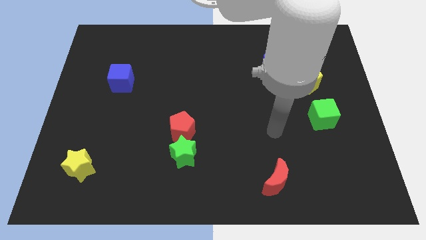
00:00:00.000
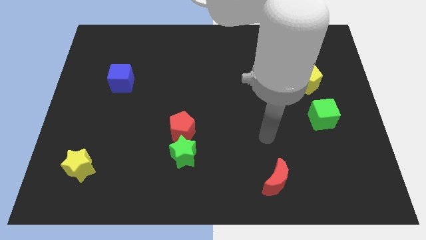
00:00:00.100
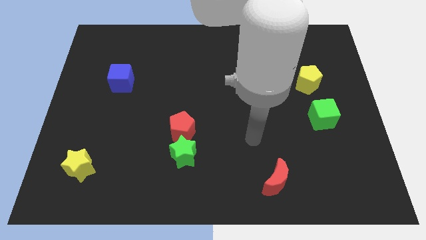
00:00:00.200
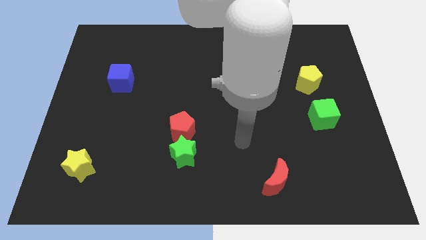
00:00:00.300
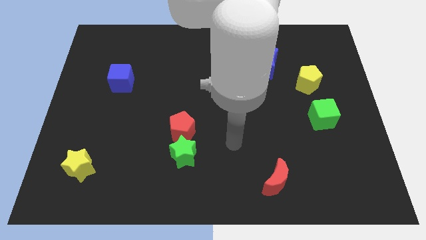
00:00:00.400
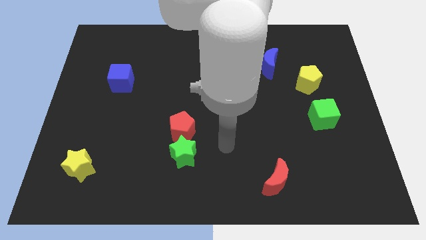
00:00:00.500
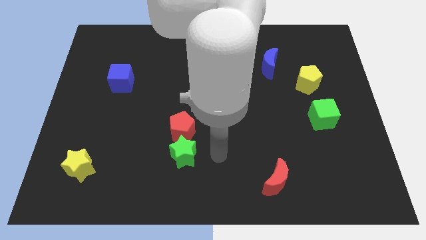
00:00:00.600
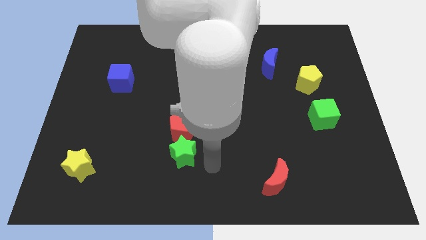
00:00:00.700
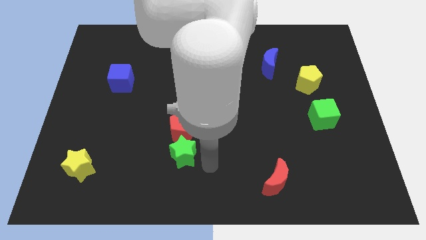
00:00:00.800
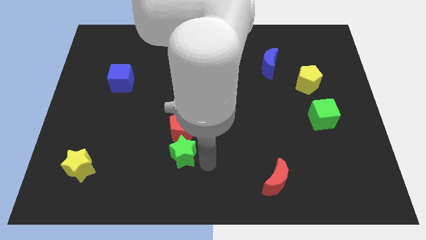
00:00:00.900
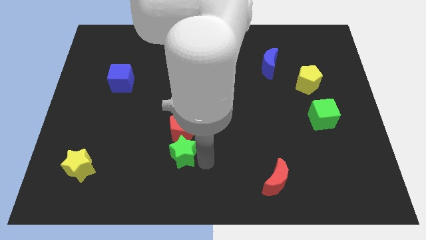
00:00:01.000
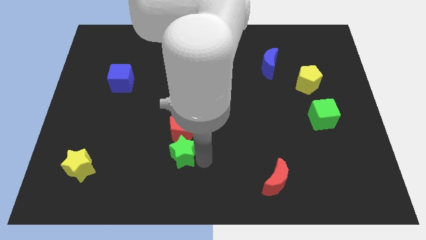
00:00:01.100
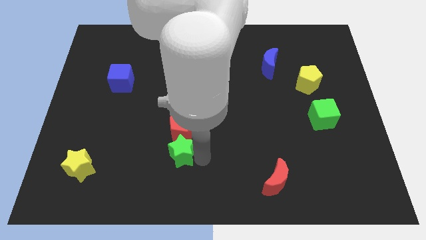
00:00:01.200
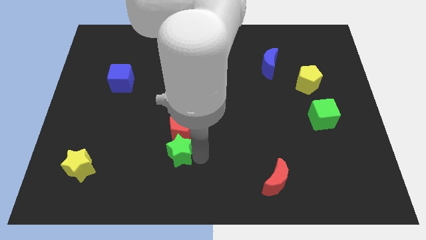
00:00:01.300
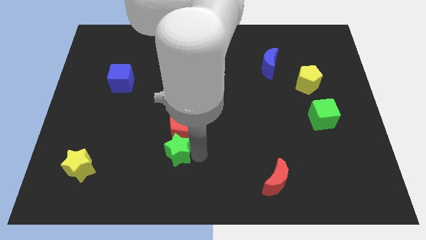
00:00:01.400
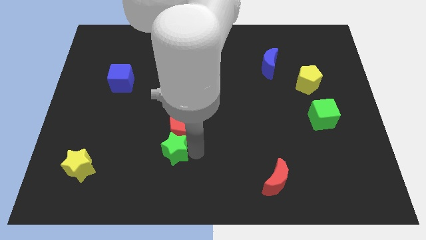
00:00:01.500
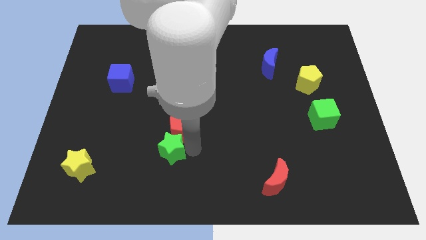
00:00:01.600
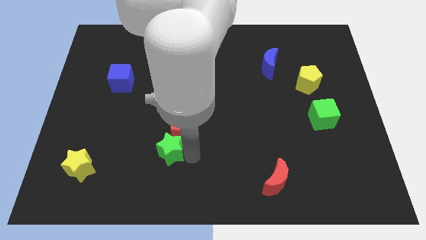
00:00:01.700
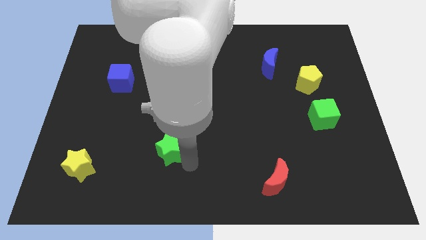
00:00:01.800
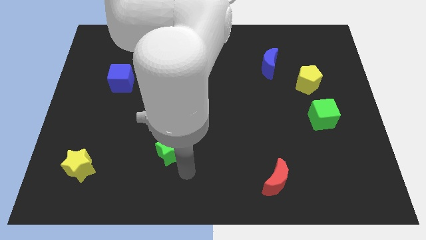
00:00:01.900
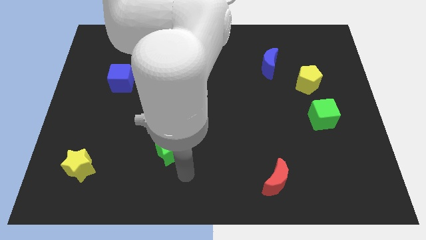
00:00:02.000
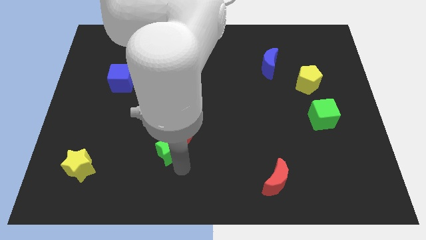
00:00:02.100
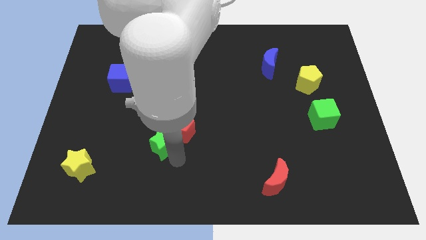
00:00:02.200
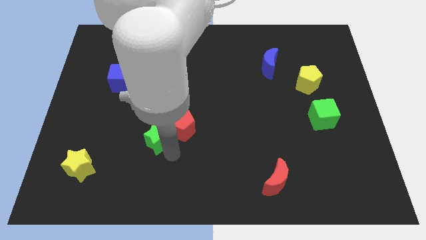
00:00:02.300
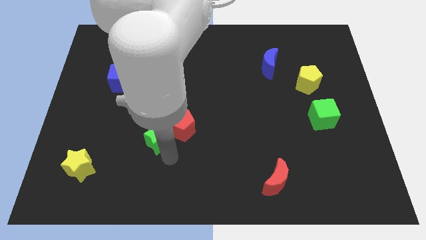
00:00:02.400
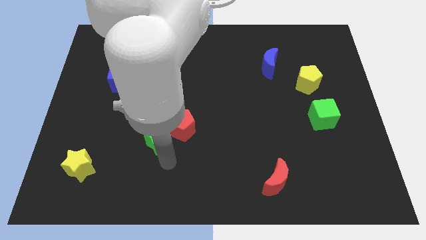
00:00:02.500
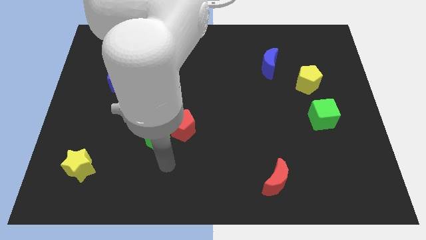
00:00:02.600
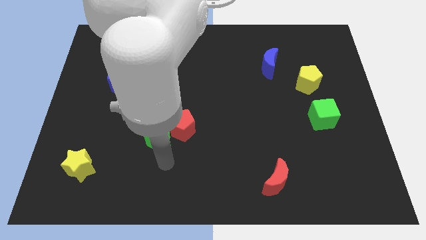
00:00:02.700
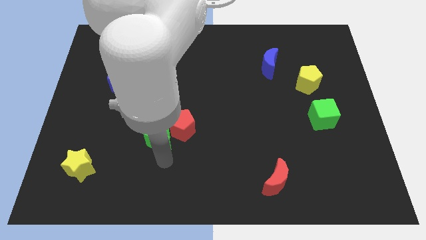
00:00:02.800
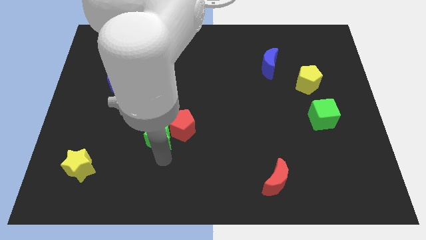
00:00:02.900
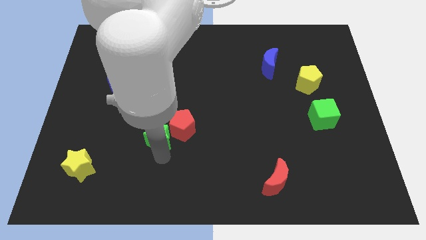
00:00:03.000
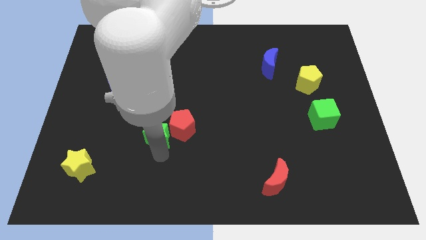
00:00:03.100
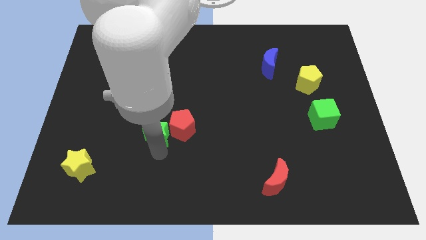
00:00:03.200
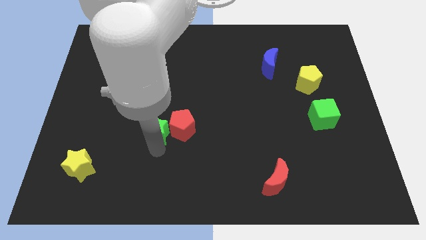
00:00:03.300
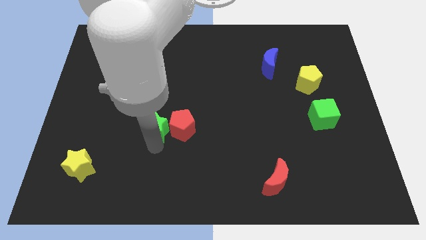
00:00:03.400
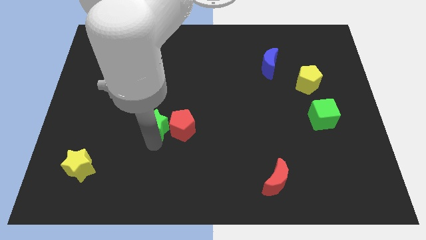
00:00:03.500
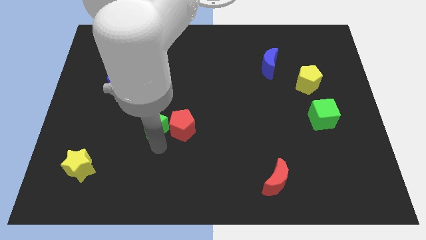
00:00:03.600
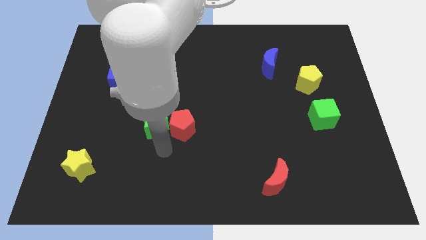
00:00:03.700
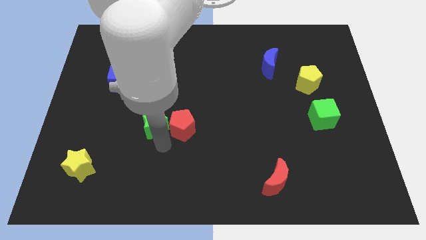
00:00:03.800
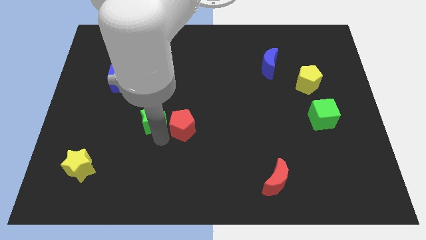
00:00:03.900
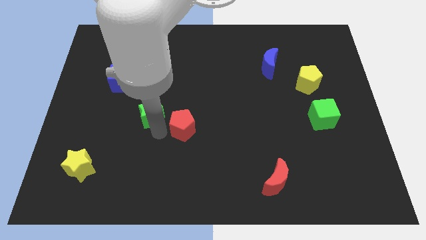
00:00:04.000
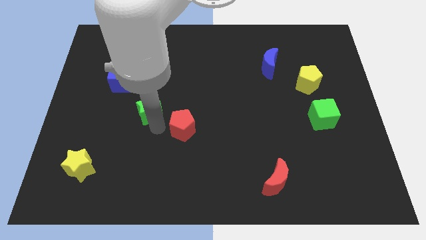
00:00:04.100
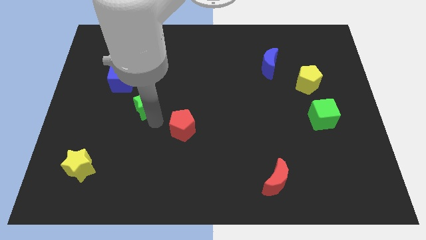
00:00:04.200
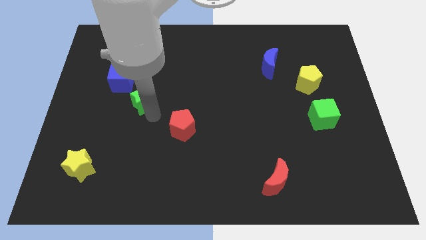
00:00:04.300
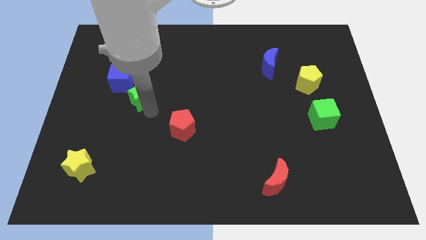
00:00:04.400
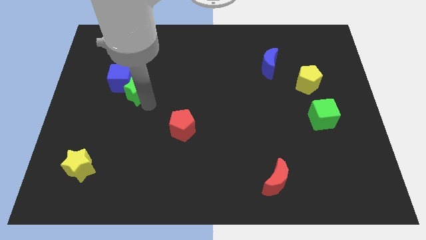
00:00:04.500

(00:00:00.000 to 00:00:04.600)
put the green star towards the blue cube

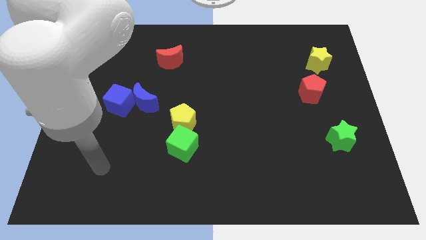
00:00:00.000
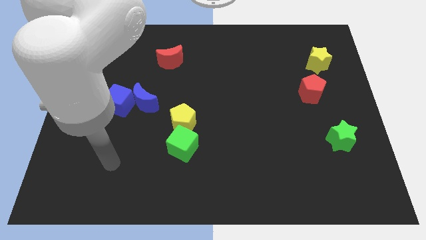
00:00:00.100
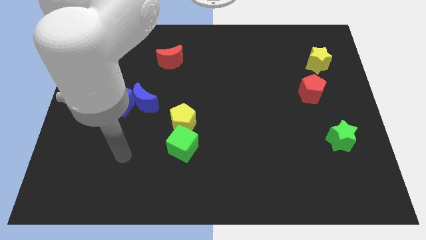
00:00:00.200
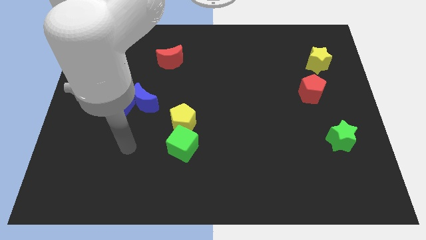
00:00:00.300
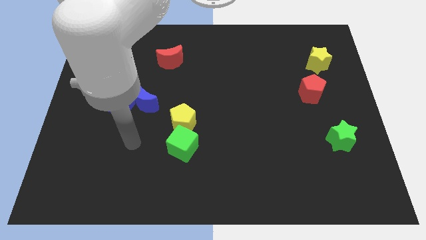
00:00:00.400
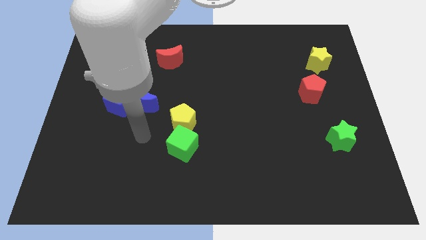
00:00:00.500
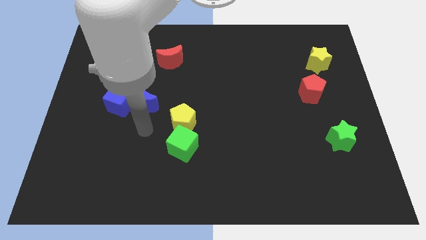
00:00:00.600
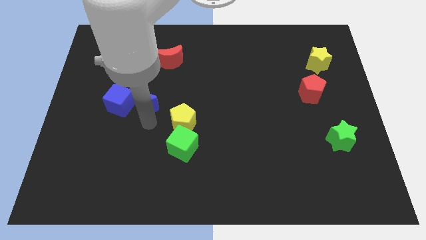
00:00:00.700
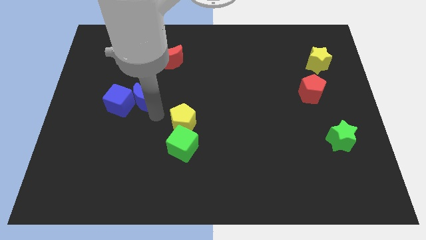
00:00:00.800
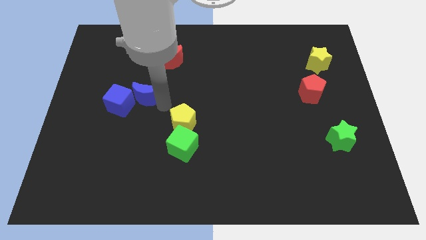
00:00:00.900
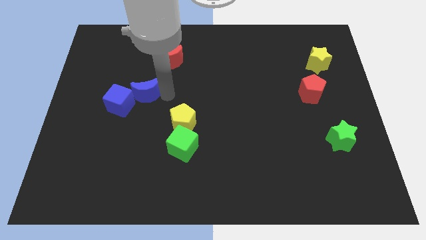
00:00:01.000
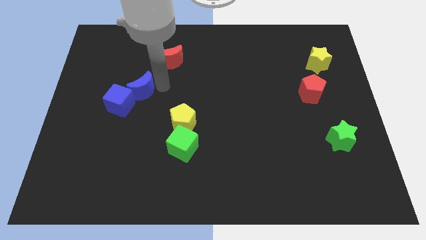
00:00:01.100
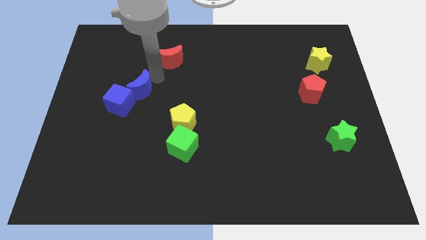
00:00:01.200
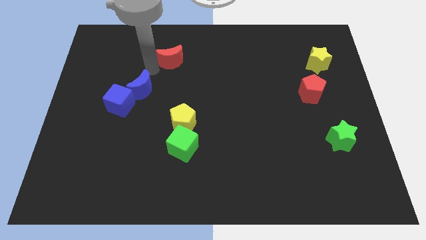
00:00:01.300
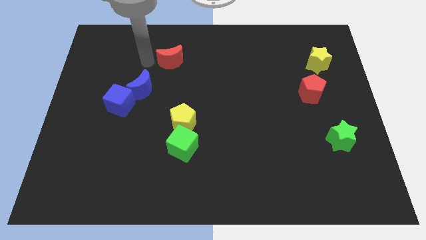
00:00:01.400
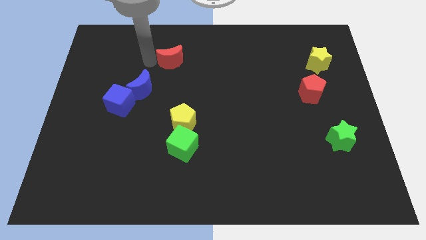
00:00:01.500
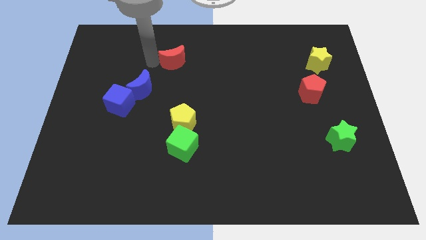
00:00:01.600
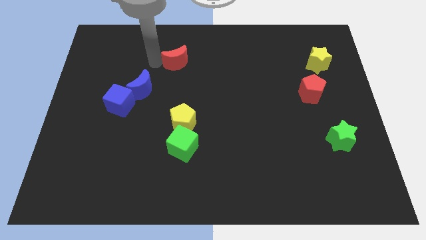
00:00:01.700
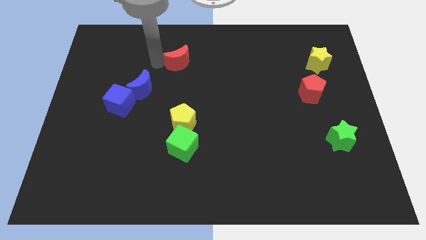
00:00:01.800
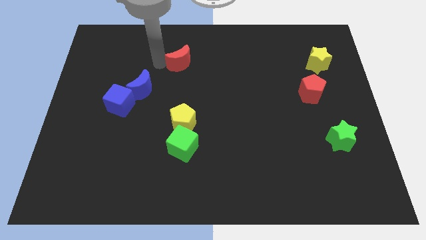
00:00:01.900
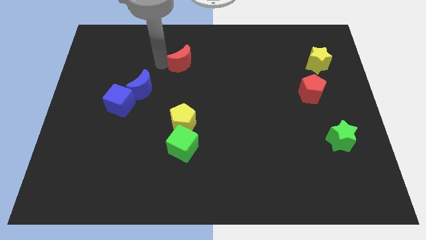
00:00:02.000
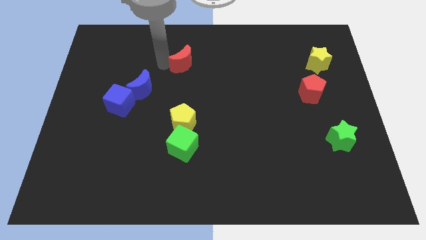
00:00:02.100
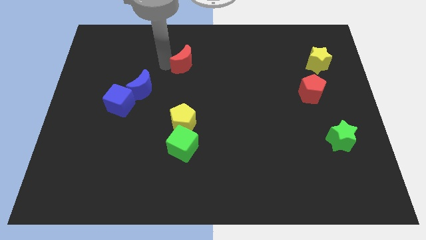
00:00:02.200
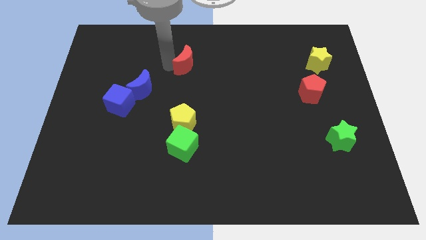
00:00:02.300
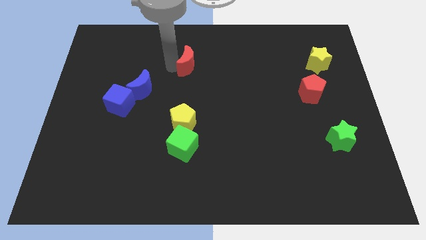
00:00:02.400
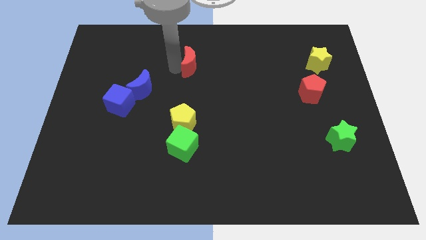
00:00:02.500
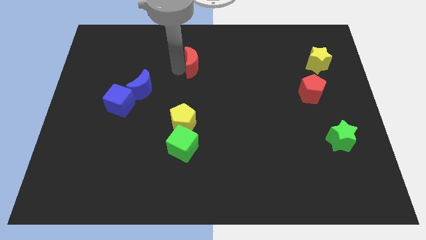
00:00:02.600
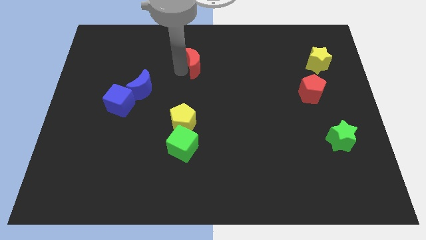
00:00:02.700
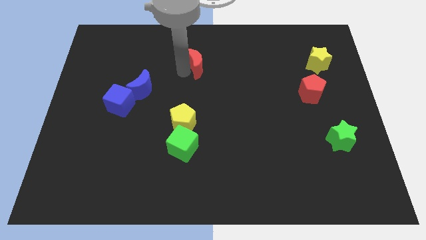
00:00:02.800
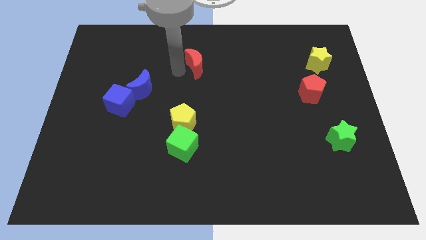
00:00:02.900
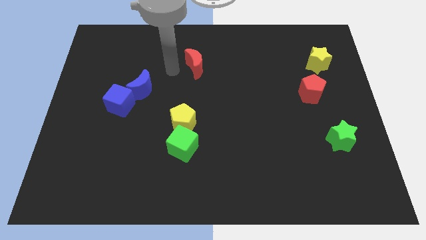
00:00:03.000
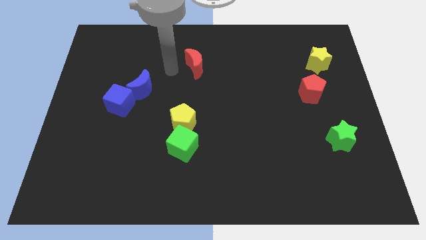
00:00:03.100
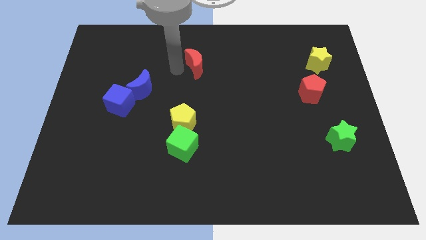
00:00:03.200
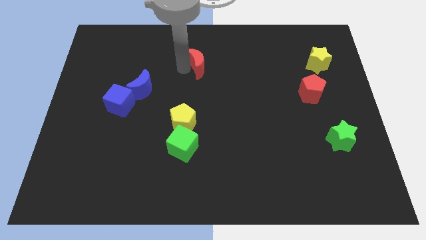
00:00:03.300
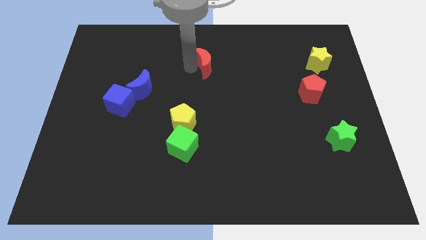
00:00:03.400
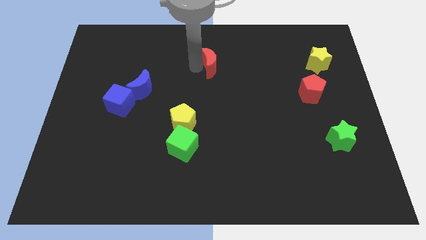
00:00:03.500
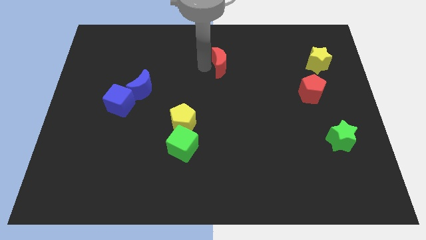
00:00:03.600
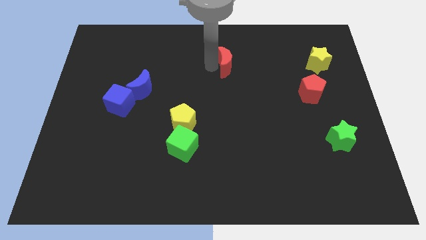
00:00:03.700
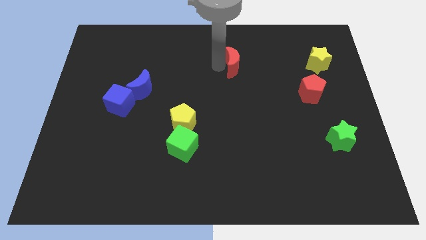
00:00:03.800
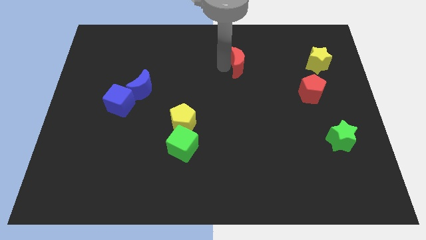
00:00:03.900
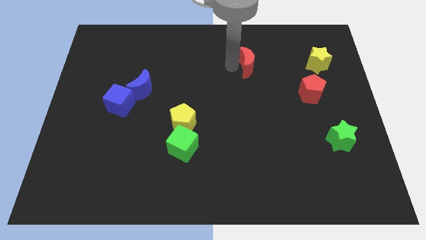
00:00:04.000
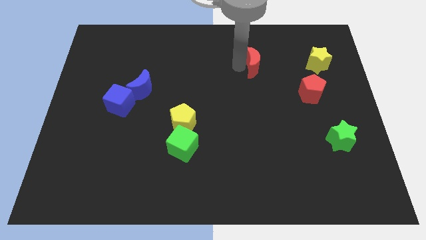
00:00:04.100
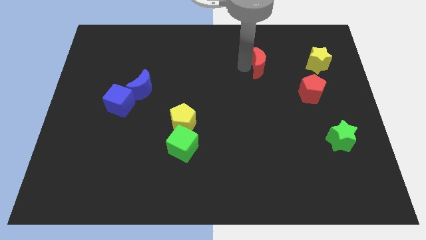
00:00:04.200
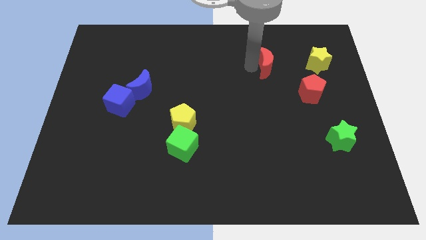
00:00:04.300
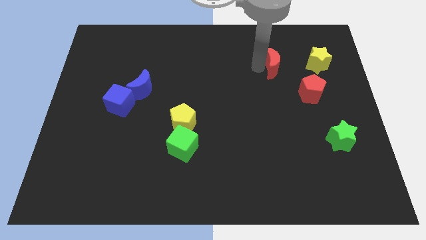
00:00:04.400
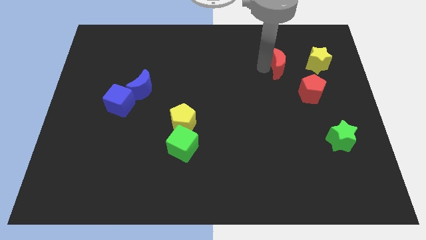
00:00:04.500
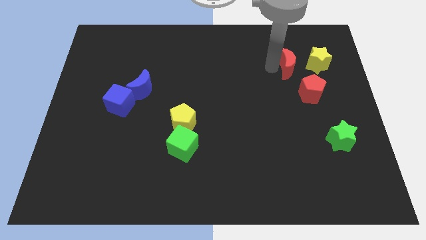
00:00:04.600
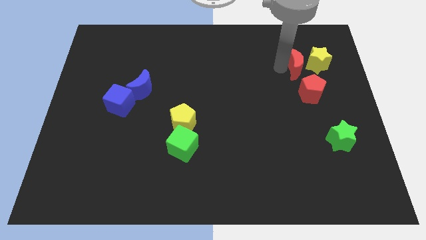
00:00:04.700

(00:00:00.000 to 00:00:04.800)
put the red moon towards the yellow star
